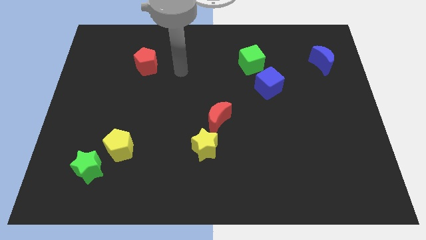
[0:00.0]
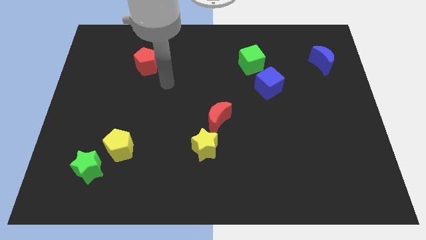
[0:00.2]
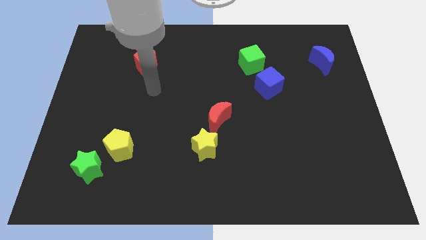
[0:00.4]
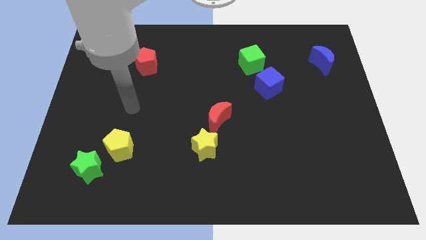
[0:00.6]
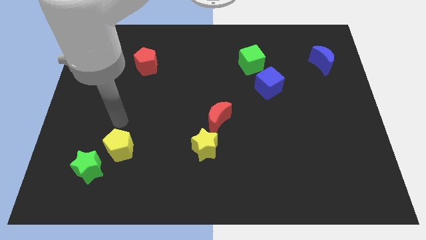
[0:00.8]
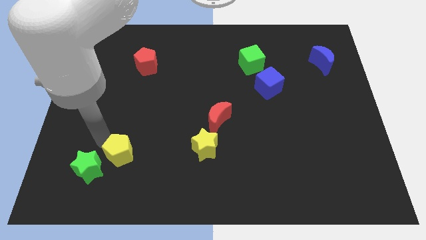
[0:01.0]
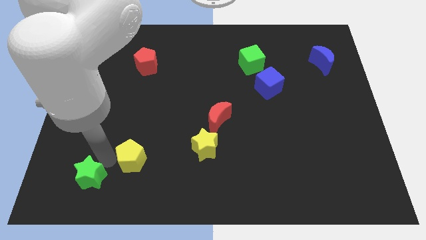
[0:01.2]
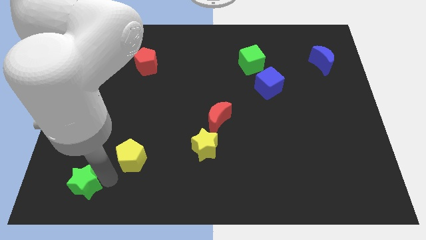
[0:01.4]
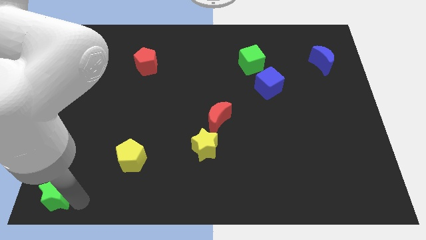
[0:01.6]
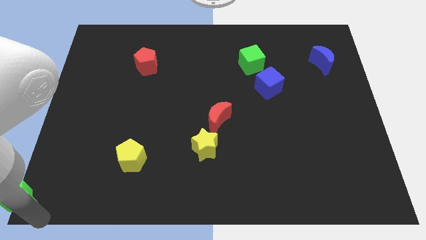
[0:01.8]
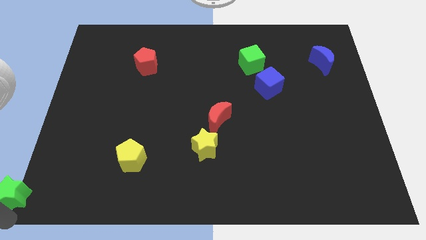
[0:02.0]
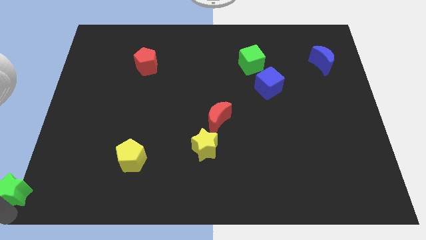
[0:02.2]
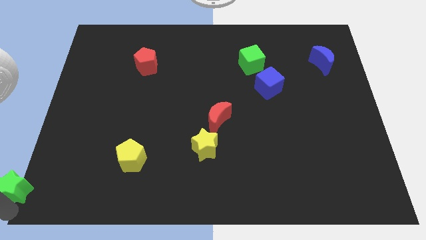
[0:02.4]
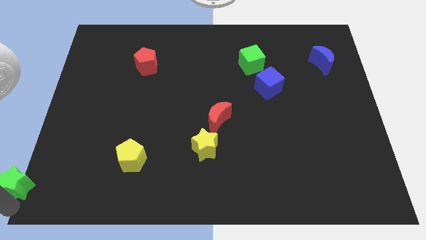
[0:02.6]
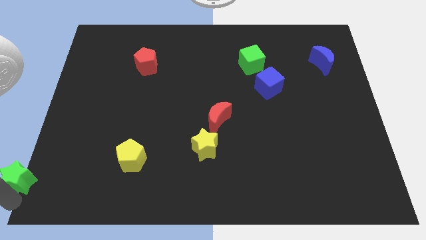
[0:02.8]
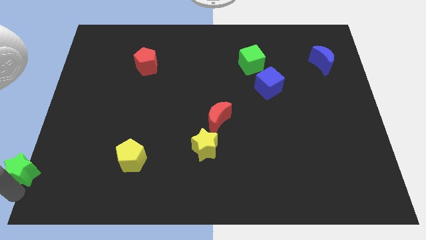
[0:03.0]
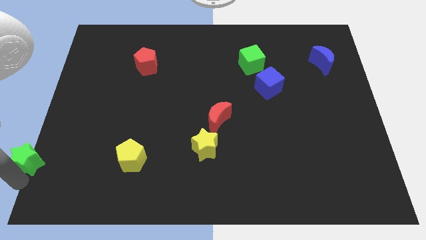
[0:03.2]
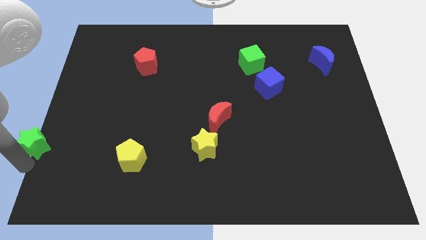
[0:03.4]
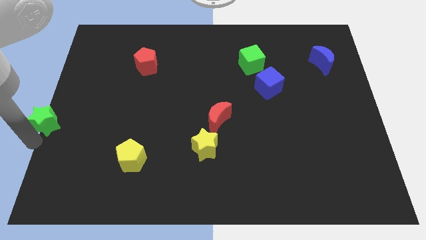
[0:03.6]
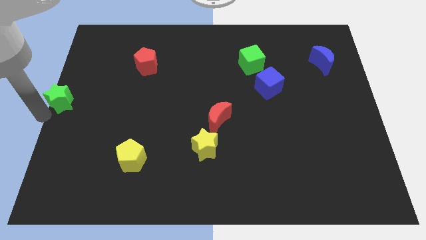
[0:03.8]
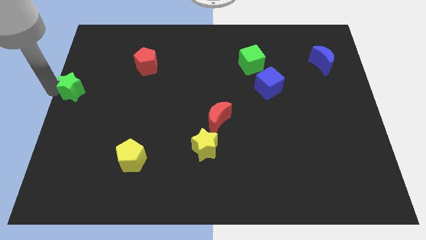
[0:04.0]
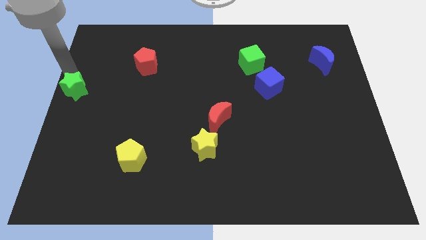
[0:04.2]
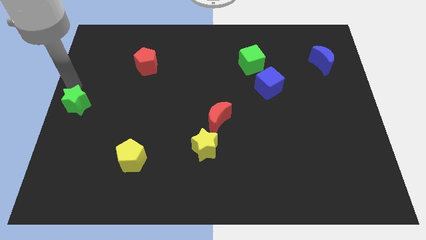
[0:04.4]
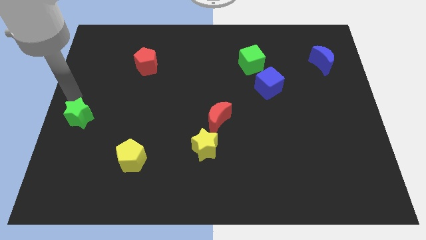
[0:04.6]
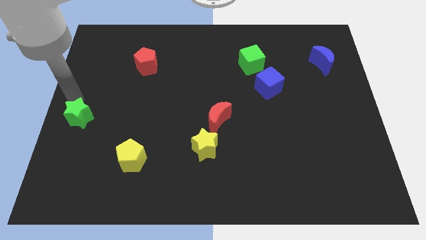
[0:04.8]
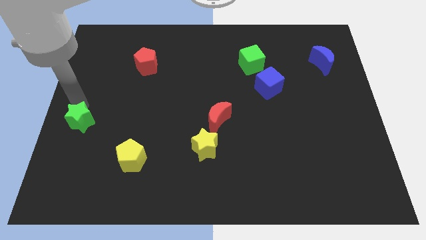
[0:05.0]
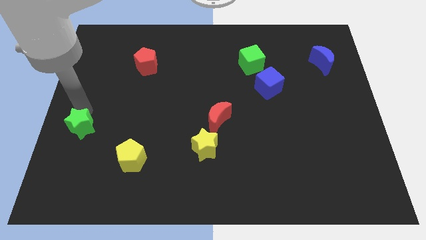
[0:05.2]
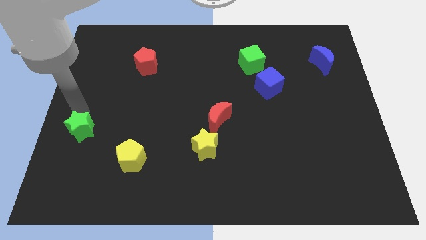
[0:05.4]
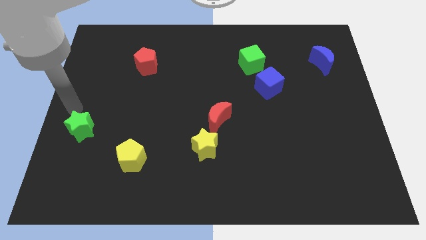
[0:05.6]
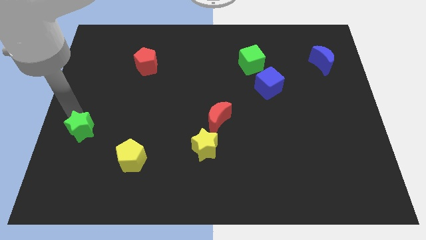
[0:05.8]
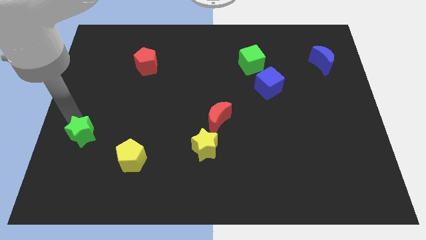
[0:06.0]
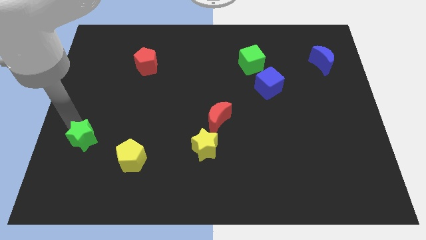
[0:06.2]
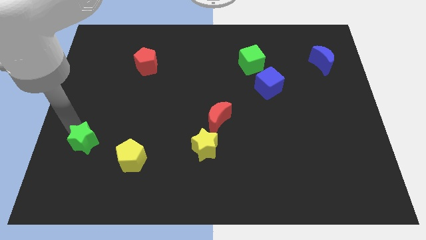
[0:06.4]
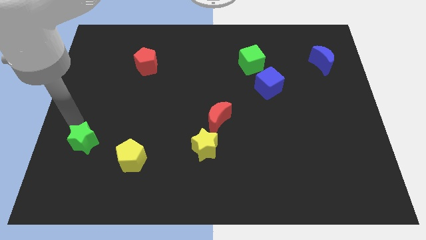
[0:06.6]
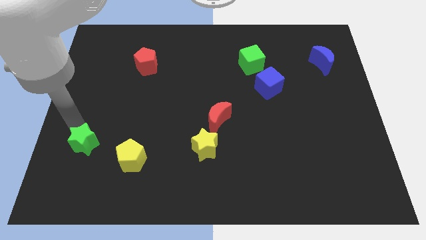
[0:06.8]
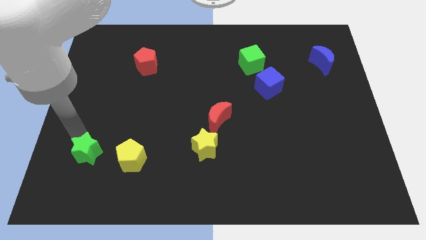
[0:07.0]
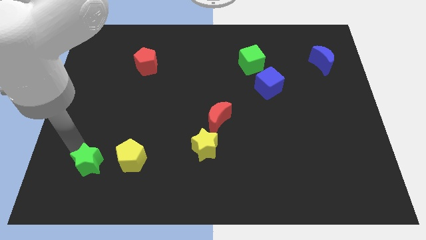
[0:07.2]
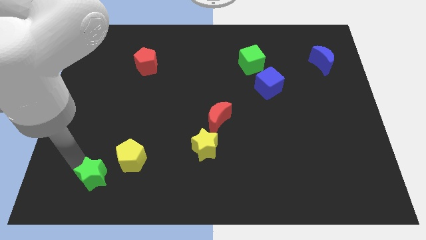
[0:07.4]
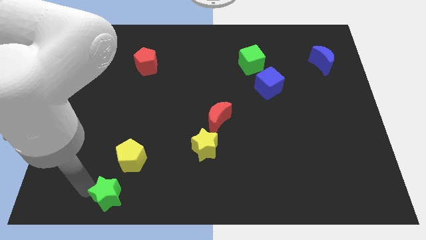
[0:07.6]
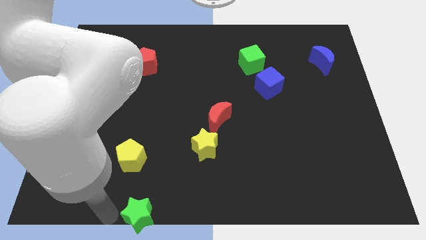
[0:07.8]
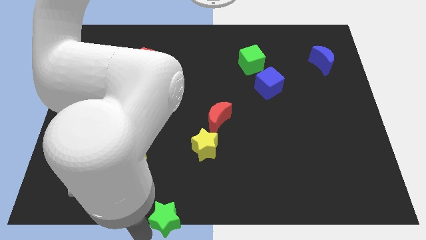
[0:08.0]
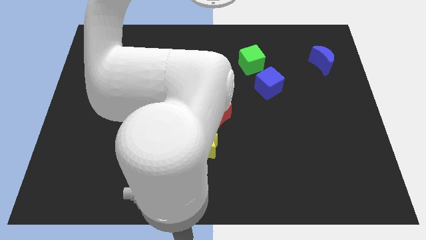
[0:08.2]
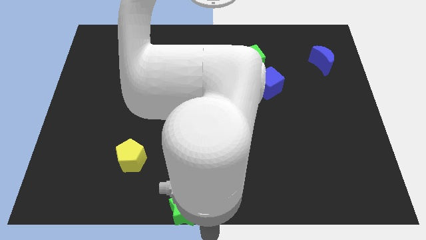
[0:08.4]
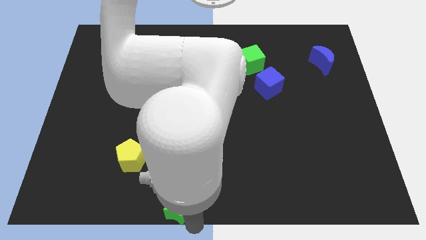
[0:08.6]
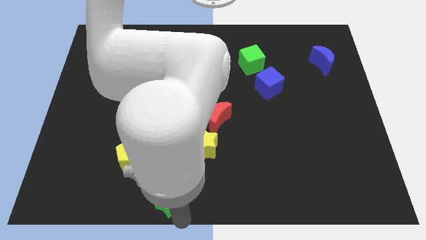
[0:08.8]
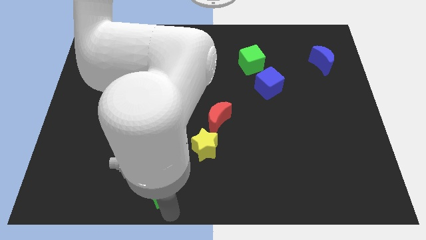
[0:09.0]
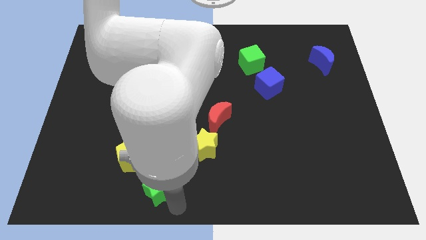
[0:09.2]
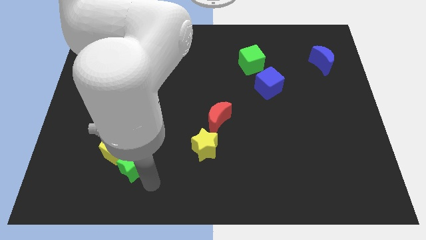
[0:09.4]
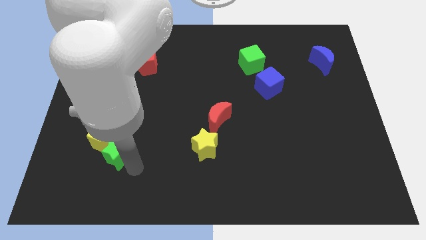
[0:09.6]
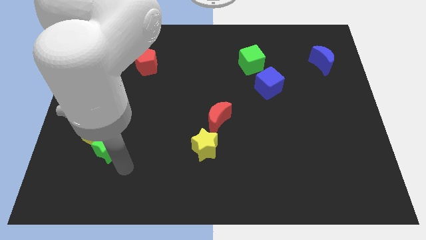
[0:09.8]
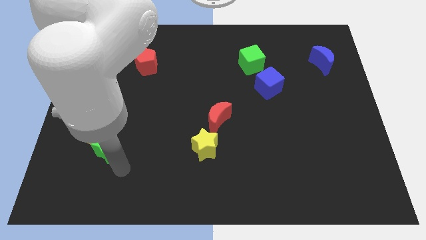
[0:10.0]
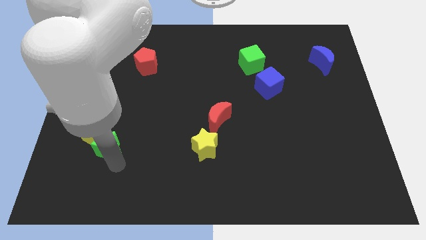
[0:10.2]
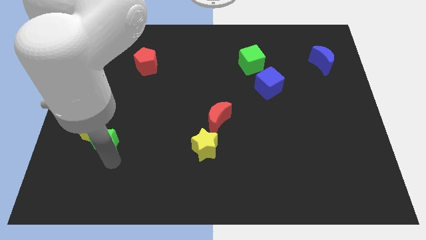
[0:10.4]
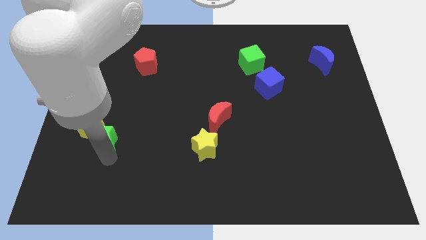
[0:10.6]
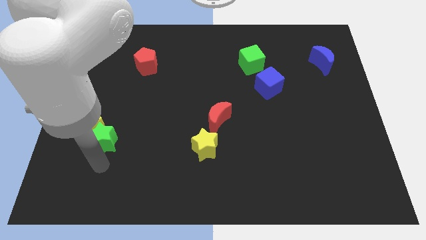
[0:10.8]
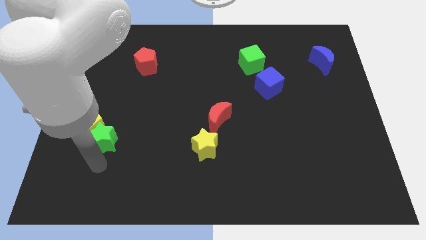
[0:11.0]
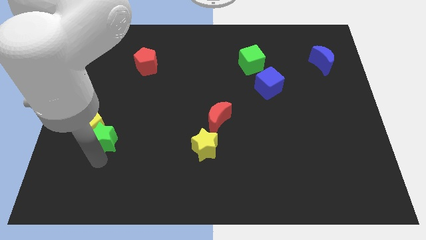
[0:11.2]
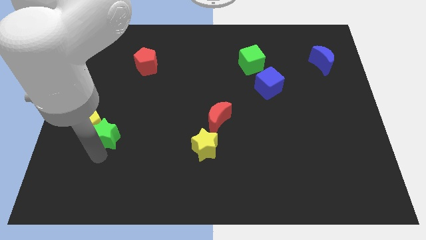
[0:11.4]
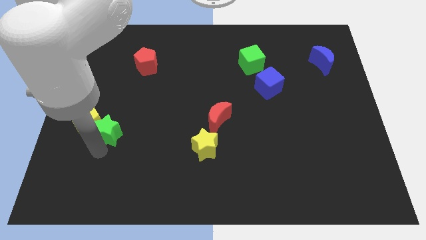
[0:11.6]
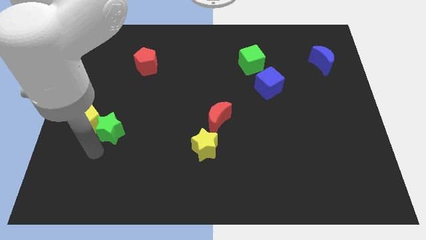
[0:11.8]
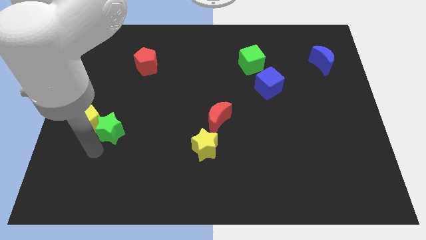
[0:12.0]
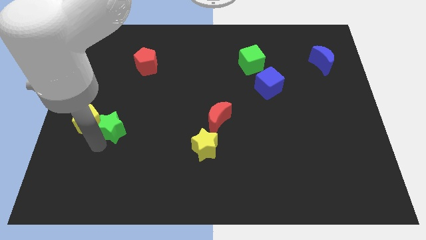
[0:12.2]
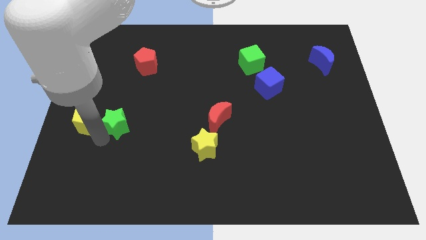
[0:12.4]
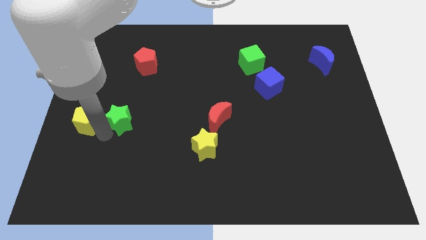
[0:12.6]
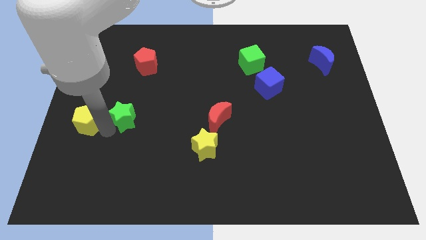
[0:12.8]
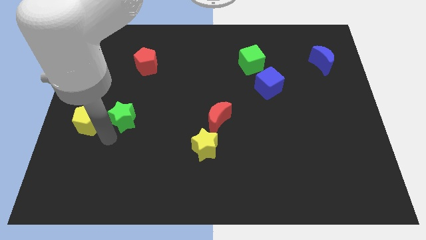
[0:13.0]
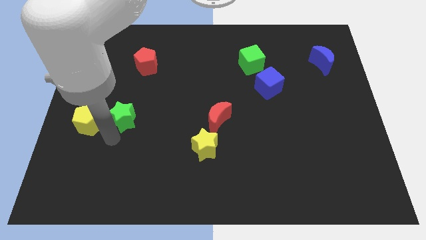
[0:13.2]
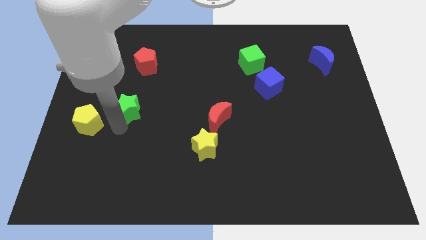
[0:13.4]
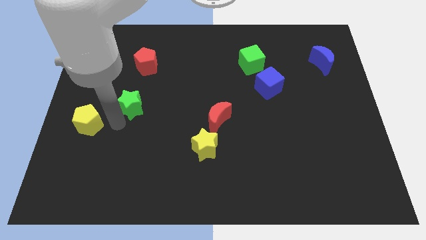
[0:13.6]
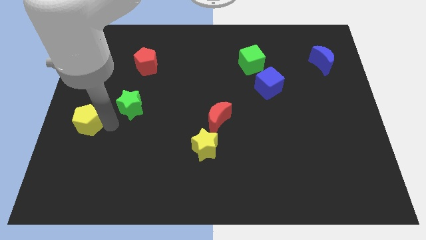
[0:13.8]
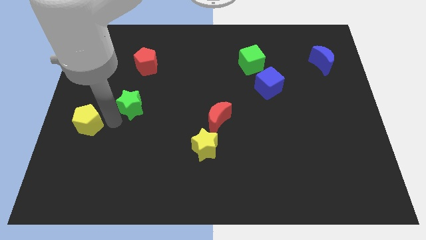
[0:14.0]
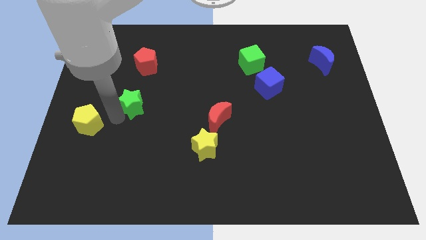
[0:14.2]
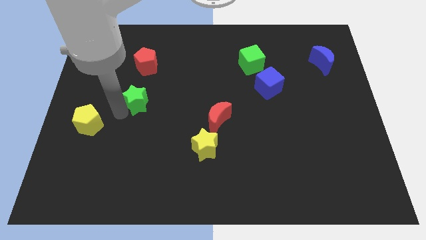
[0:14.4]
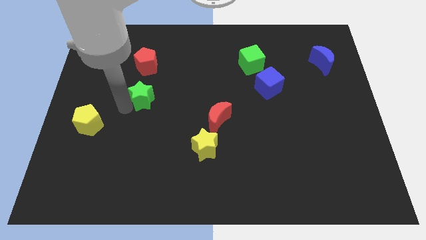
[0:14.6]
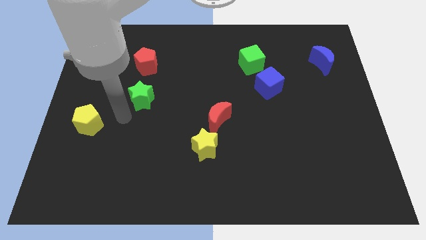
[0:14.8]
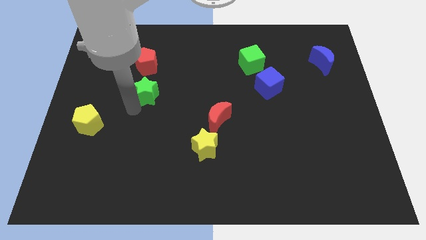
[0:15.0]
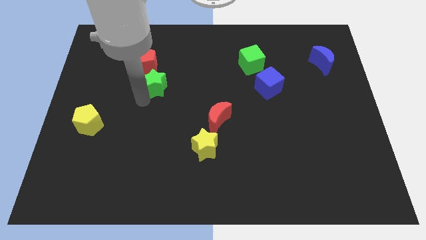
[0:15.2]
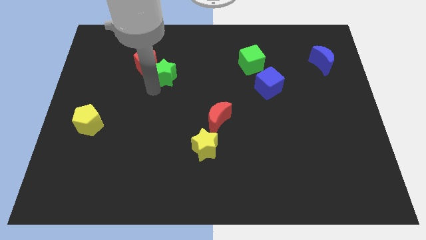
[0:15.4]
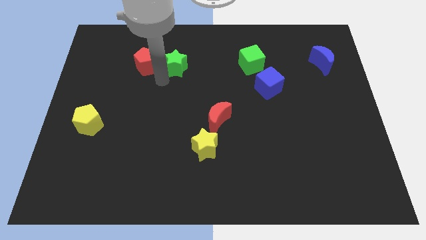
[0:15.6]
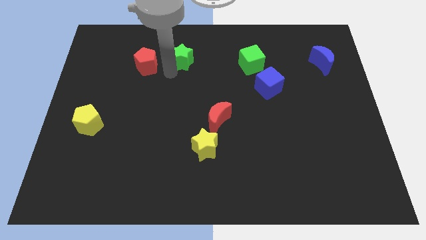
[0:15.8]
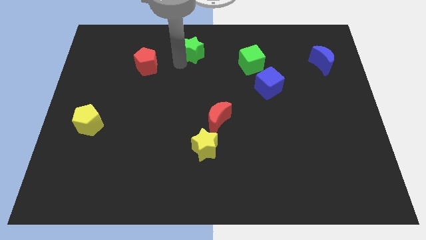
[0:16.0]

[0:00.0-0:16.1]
push the green star to the towards your base
